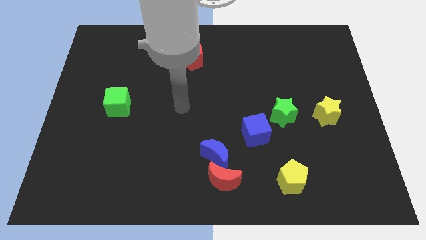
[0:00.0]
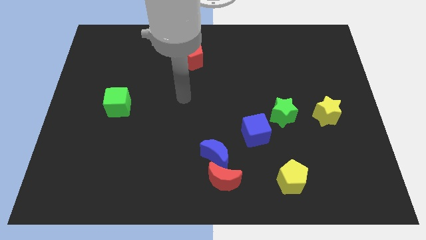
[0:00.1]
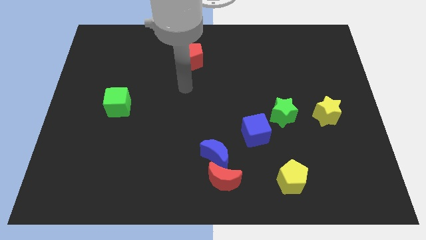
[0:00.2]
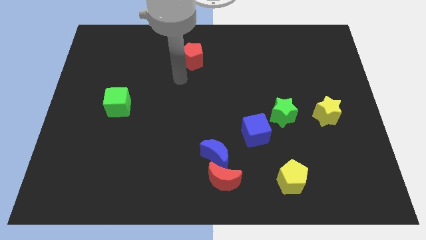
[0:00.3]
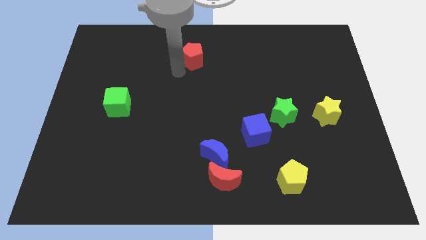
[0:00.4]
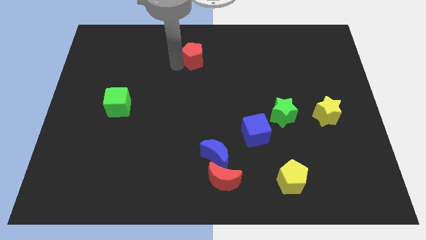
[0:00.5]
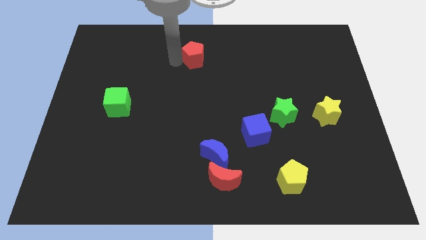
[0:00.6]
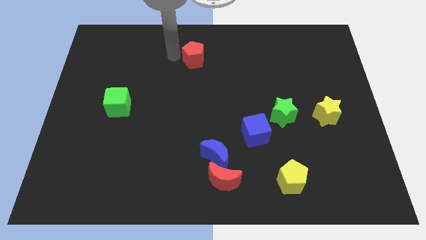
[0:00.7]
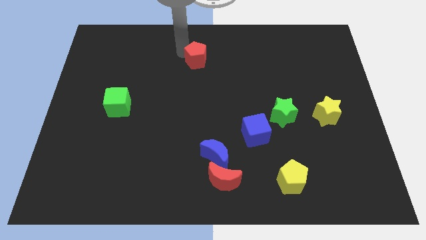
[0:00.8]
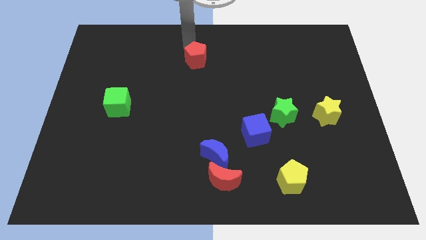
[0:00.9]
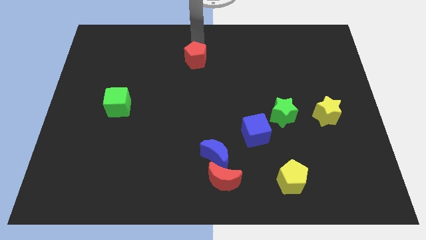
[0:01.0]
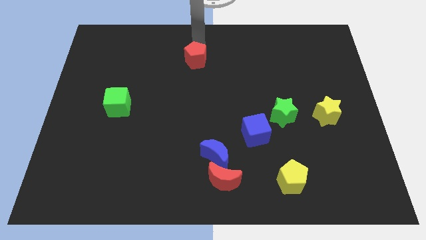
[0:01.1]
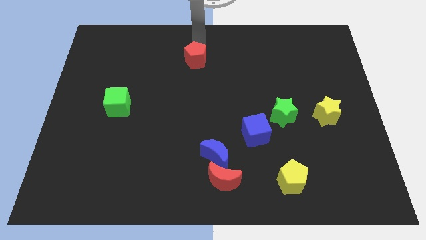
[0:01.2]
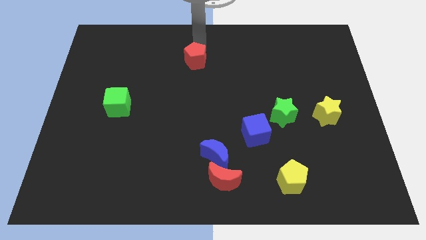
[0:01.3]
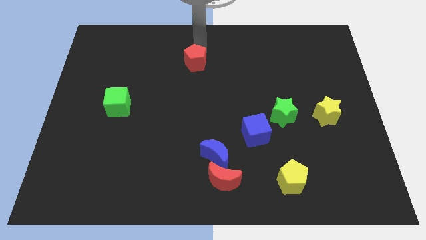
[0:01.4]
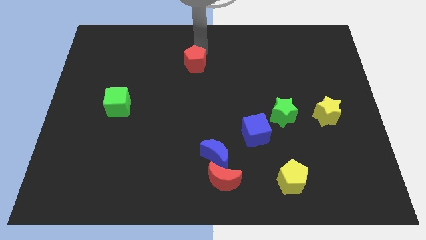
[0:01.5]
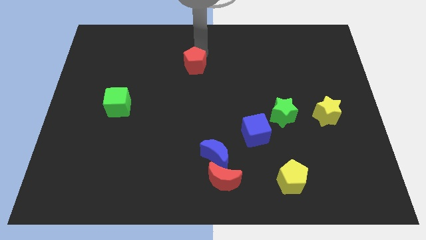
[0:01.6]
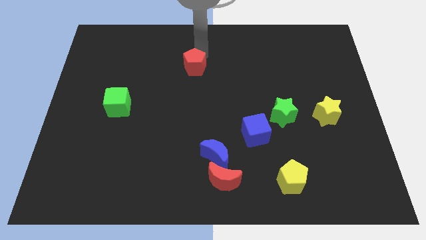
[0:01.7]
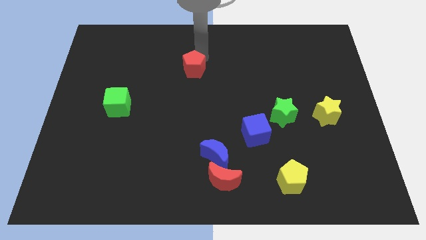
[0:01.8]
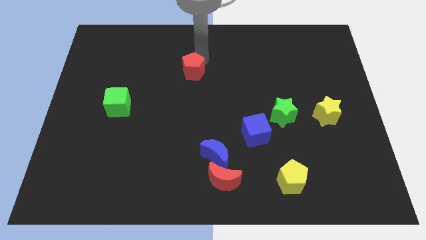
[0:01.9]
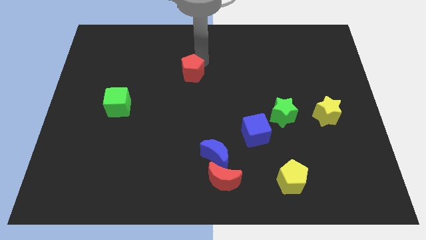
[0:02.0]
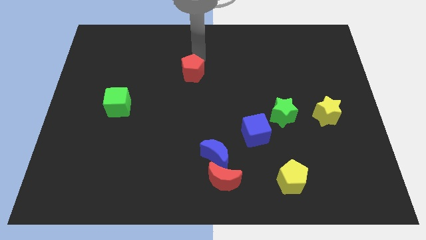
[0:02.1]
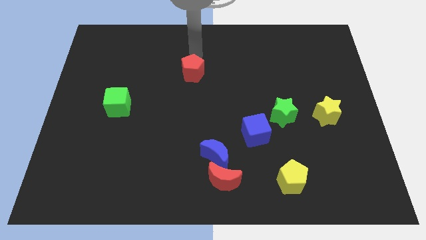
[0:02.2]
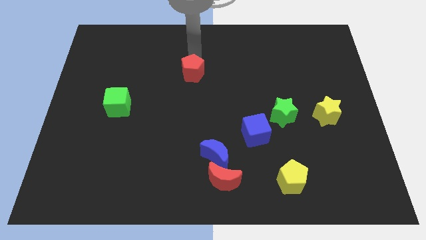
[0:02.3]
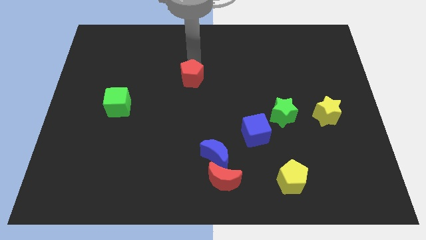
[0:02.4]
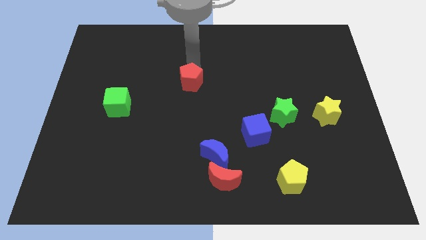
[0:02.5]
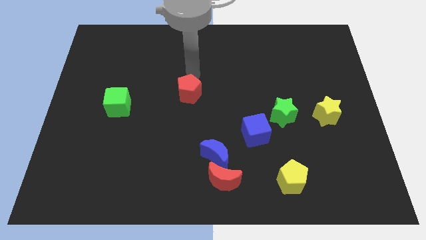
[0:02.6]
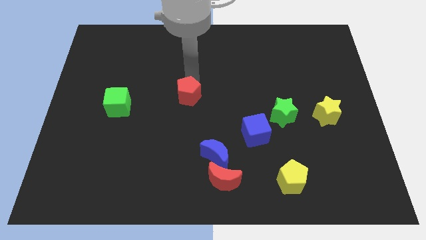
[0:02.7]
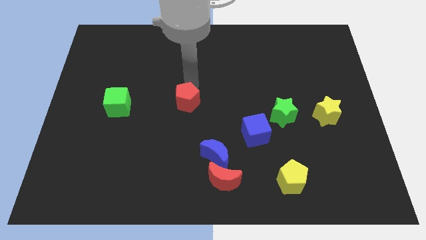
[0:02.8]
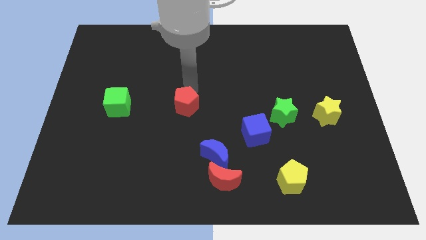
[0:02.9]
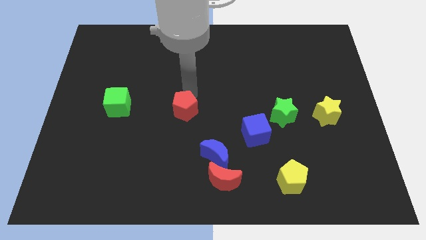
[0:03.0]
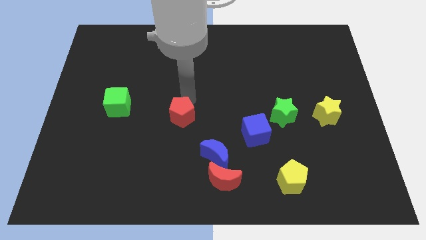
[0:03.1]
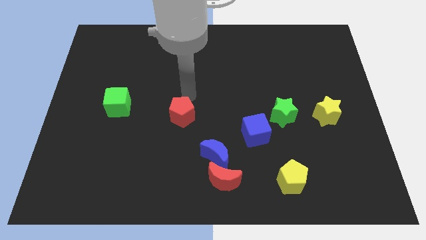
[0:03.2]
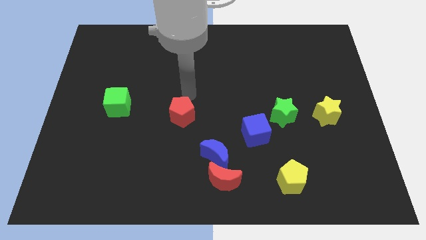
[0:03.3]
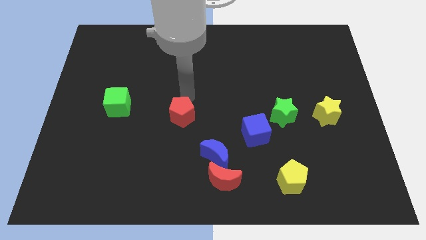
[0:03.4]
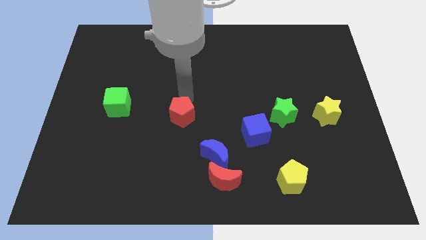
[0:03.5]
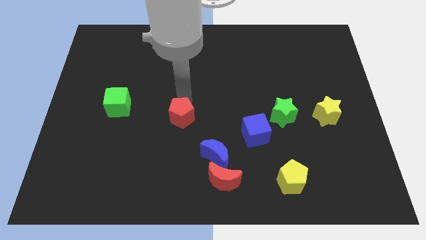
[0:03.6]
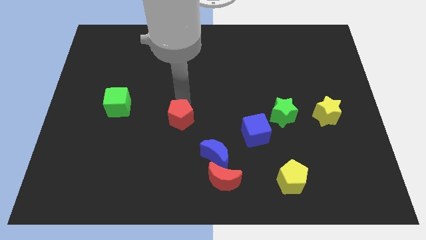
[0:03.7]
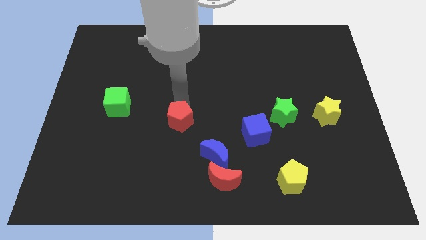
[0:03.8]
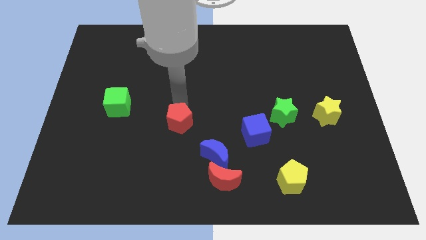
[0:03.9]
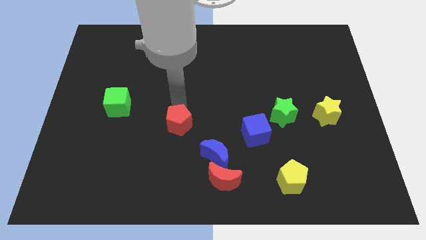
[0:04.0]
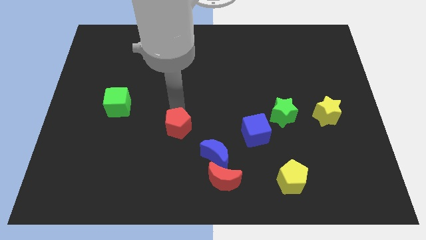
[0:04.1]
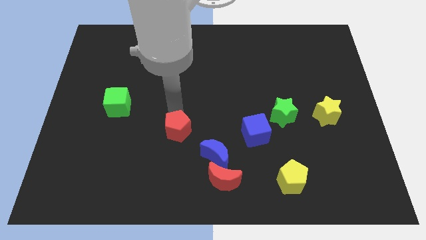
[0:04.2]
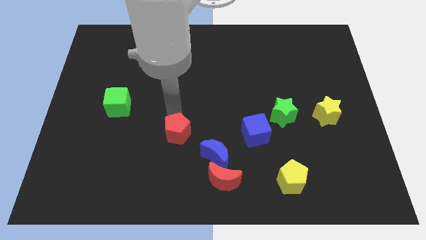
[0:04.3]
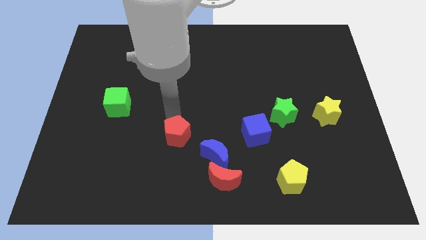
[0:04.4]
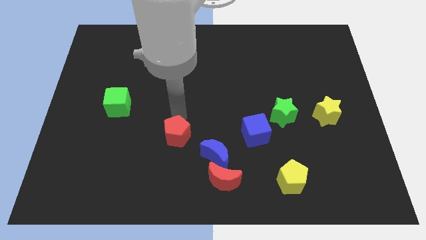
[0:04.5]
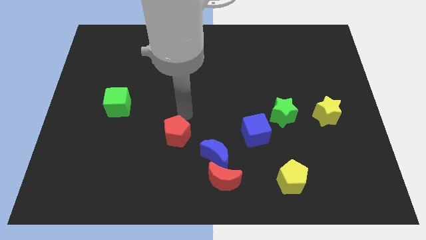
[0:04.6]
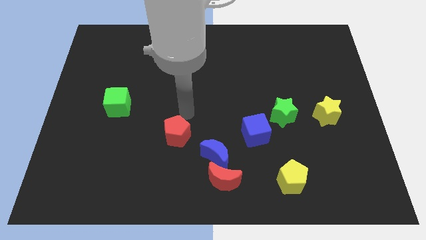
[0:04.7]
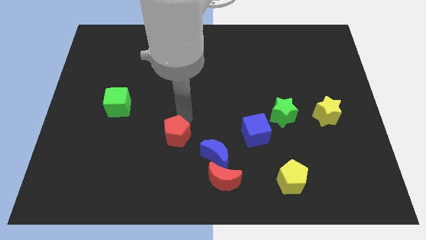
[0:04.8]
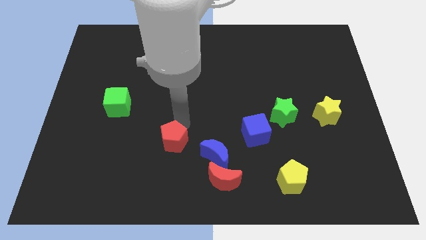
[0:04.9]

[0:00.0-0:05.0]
slide the red pentagon left of the blue moon

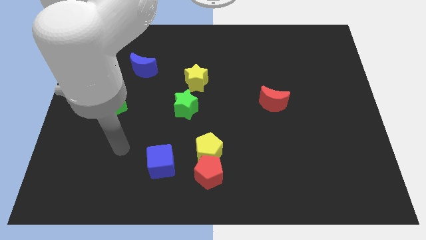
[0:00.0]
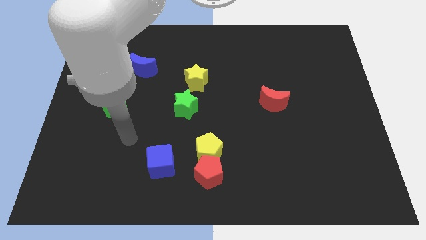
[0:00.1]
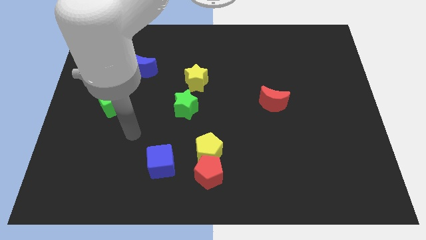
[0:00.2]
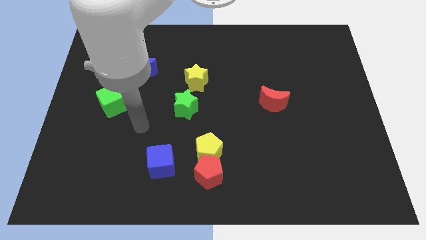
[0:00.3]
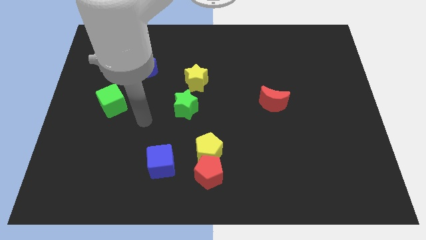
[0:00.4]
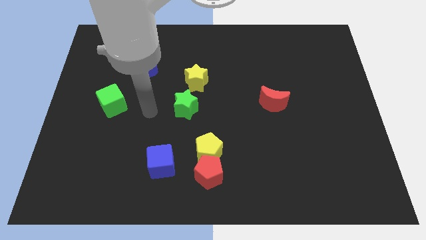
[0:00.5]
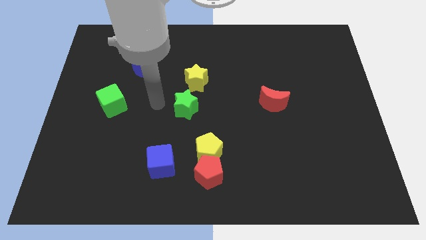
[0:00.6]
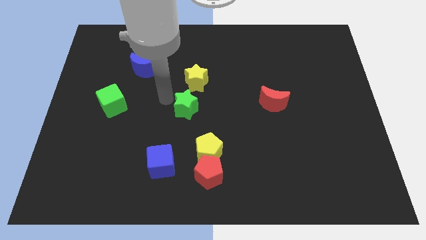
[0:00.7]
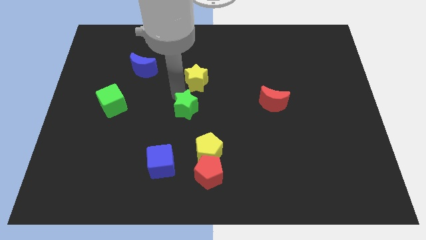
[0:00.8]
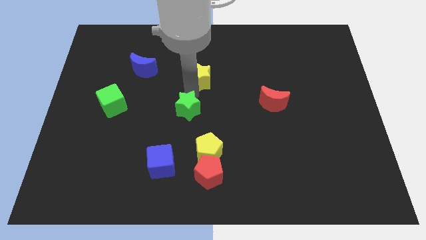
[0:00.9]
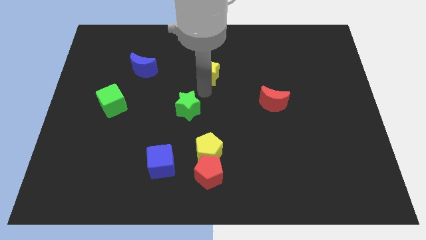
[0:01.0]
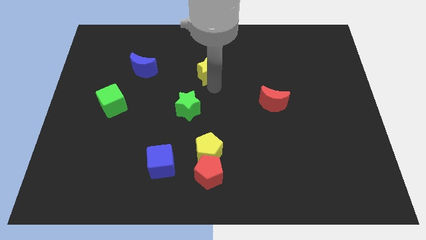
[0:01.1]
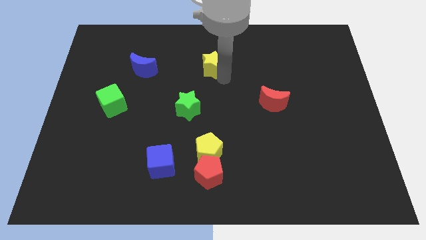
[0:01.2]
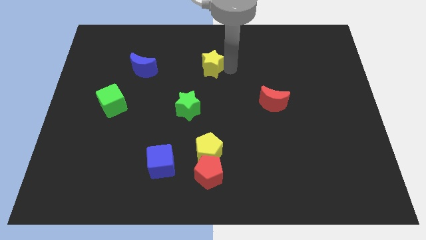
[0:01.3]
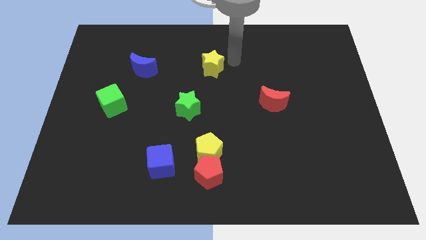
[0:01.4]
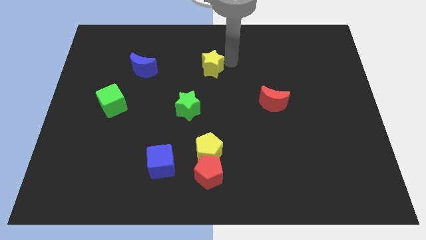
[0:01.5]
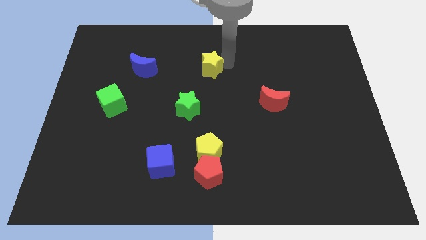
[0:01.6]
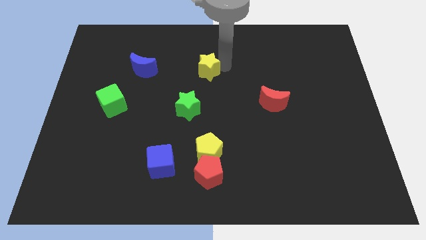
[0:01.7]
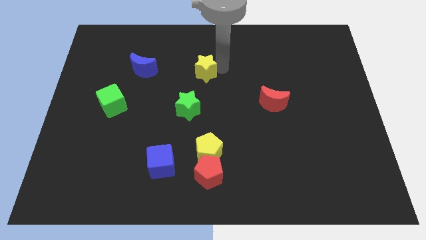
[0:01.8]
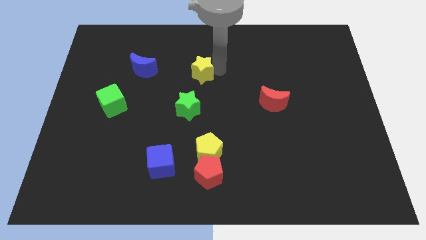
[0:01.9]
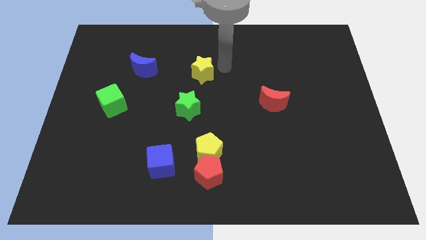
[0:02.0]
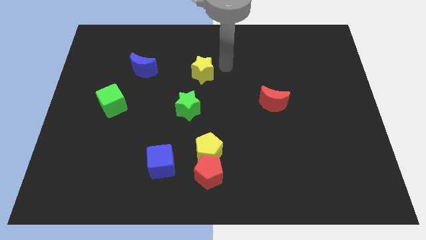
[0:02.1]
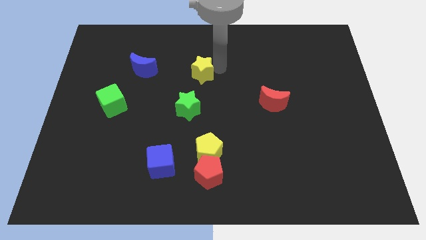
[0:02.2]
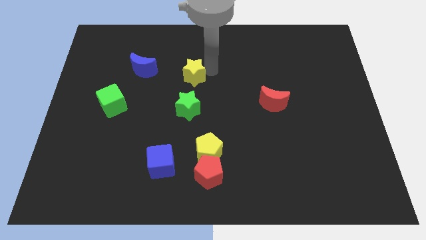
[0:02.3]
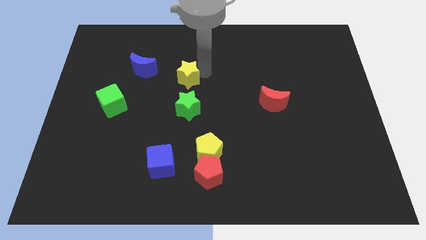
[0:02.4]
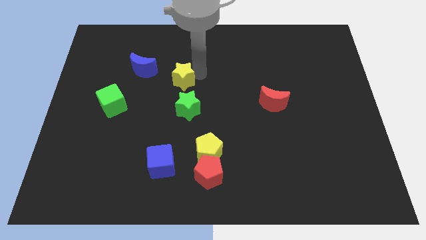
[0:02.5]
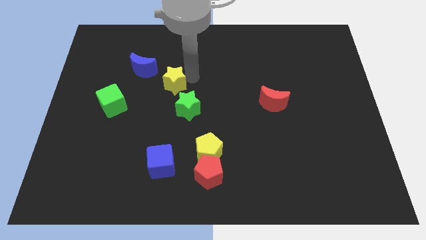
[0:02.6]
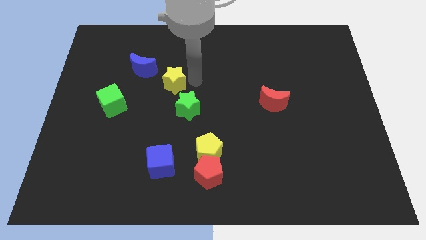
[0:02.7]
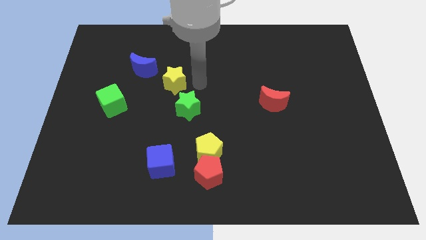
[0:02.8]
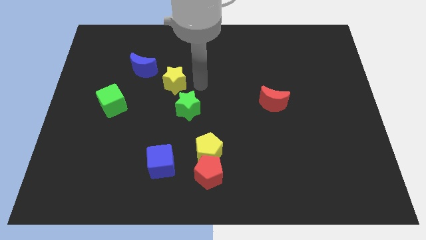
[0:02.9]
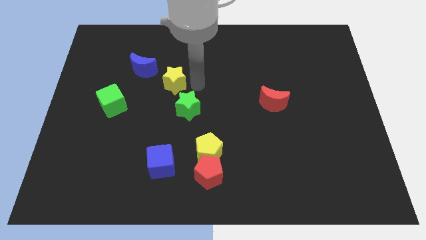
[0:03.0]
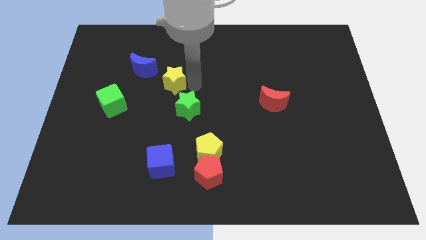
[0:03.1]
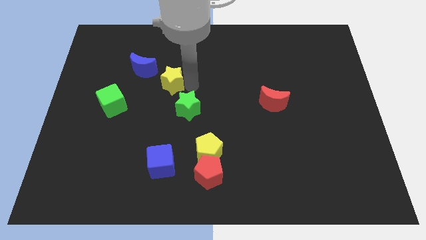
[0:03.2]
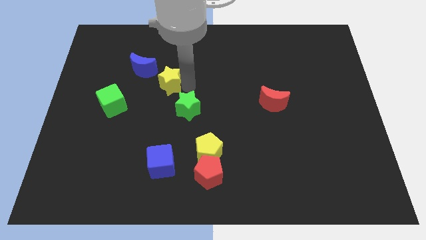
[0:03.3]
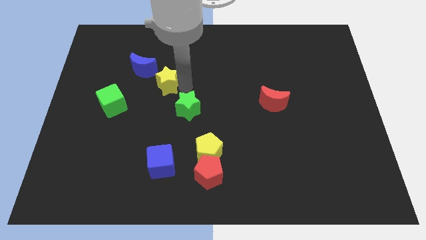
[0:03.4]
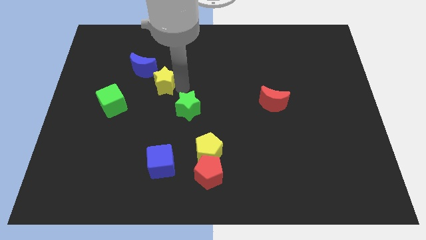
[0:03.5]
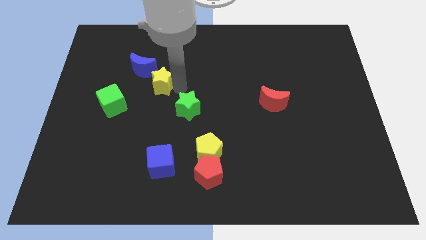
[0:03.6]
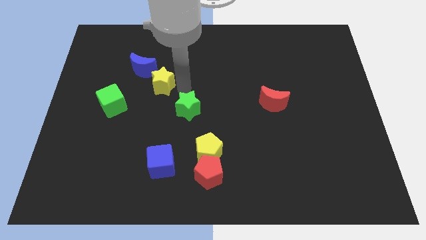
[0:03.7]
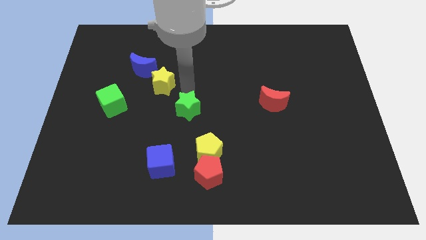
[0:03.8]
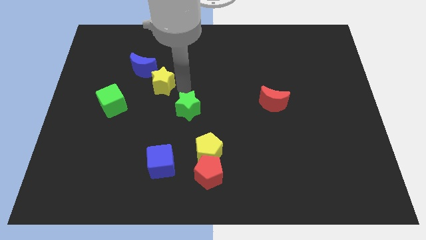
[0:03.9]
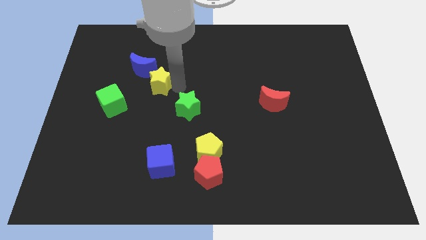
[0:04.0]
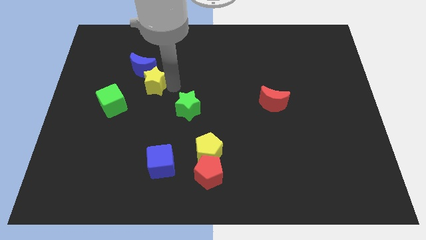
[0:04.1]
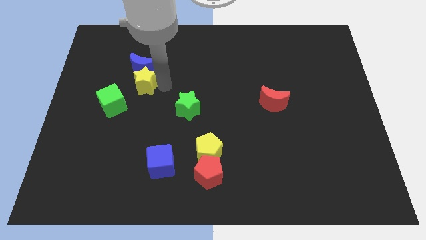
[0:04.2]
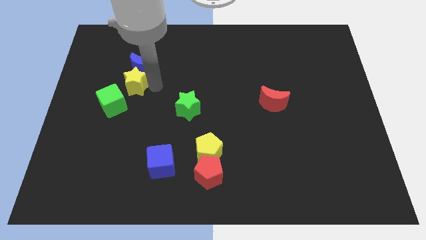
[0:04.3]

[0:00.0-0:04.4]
put the yellow star above the green cube
